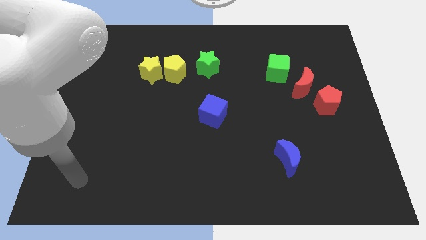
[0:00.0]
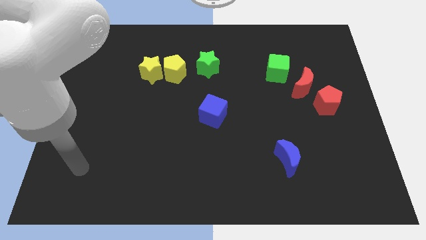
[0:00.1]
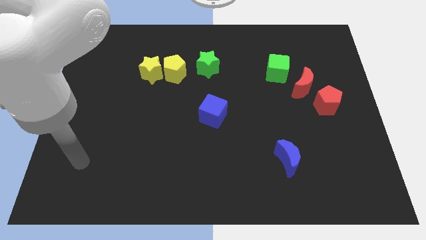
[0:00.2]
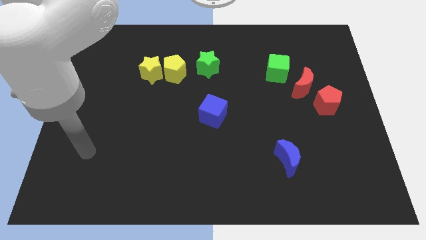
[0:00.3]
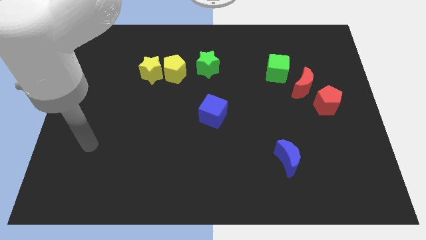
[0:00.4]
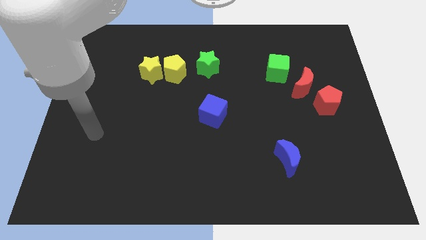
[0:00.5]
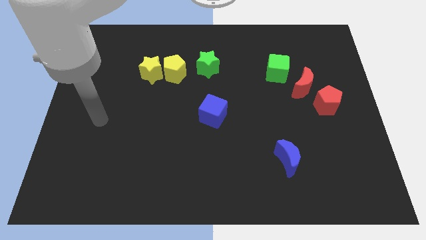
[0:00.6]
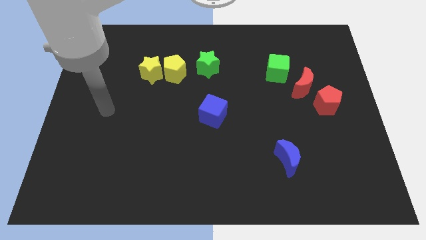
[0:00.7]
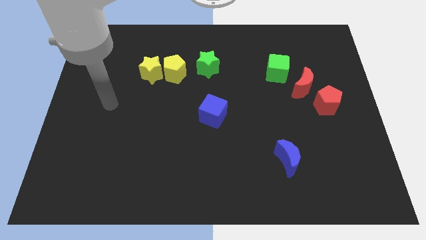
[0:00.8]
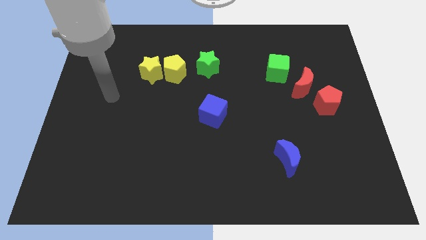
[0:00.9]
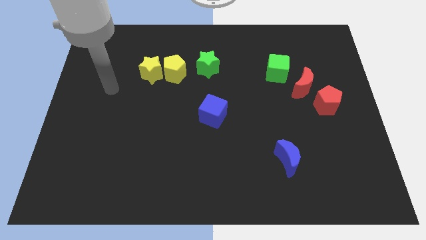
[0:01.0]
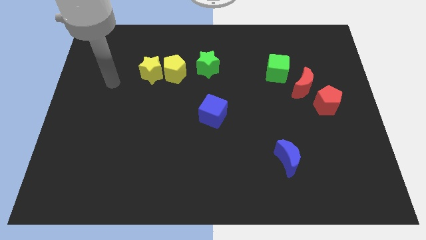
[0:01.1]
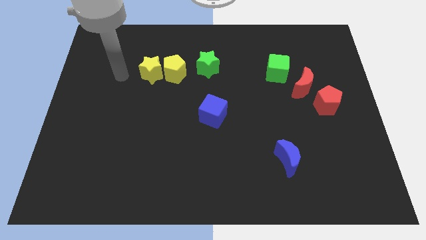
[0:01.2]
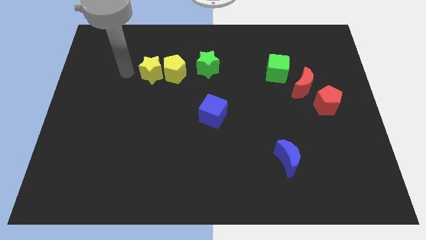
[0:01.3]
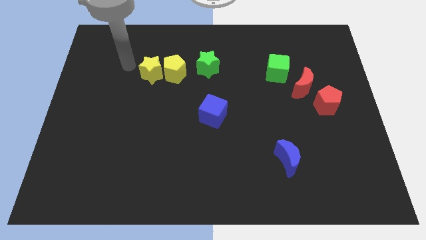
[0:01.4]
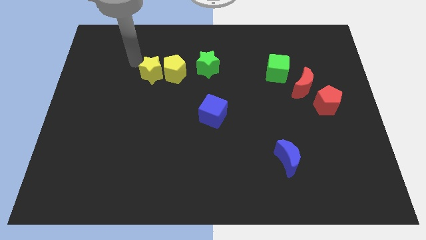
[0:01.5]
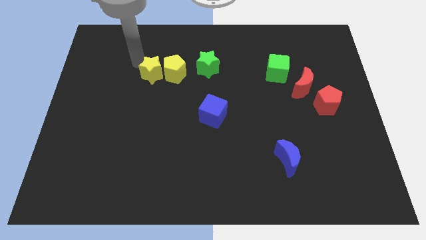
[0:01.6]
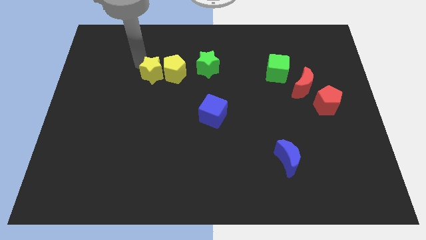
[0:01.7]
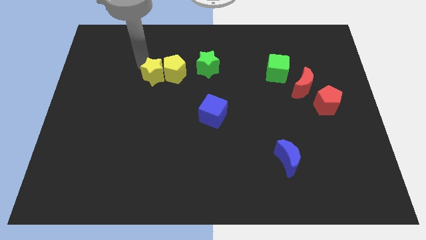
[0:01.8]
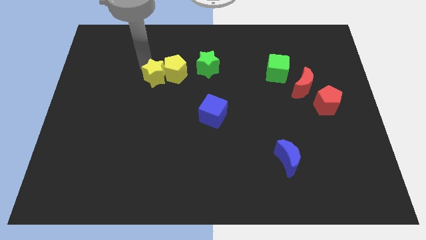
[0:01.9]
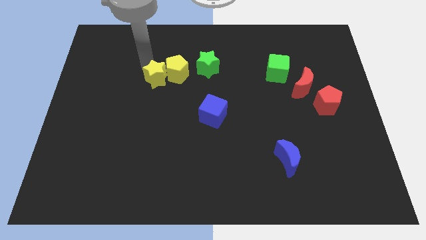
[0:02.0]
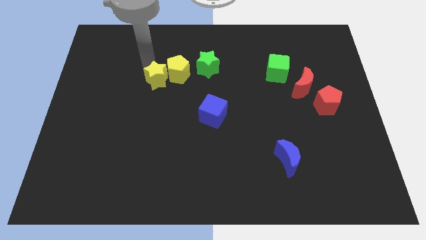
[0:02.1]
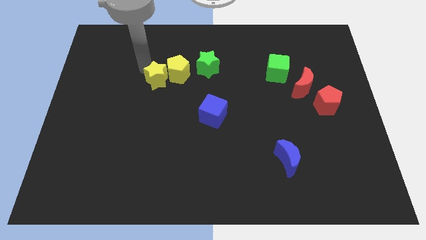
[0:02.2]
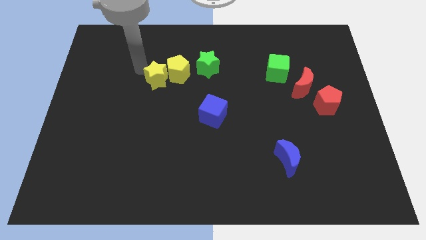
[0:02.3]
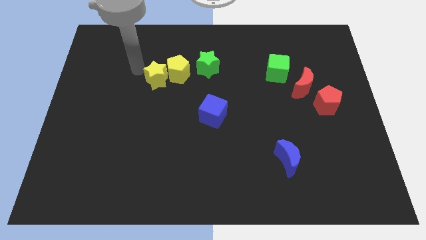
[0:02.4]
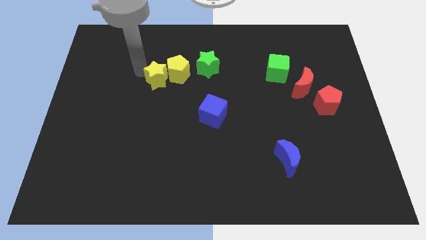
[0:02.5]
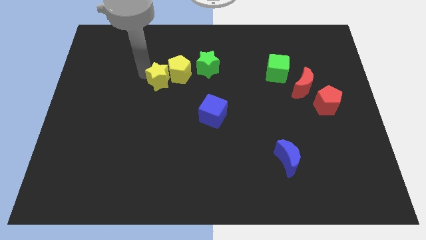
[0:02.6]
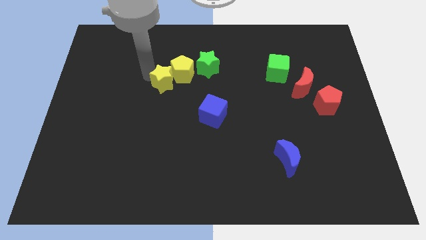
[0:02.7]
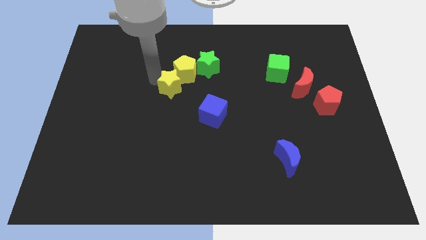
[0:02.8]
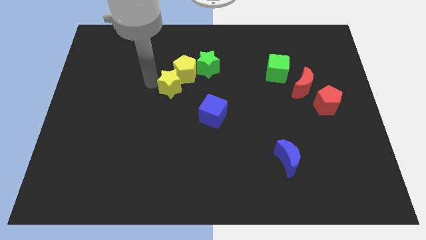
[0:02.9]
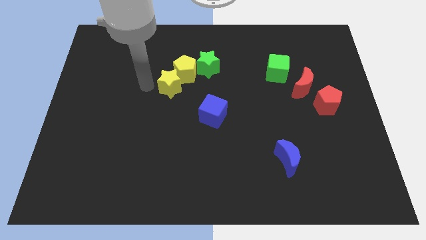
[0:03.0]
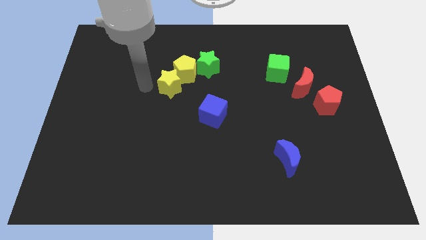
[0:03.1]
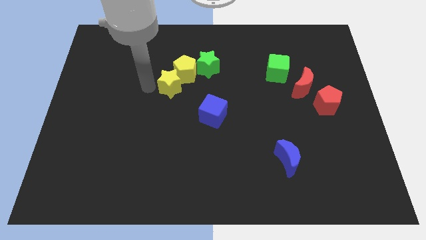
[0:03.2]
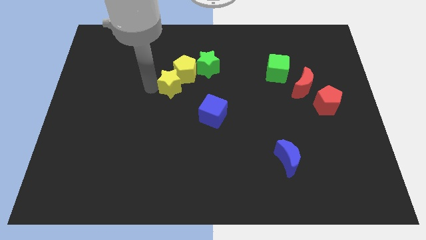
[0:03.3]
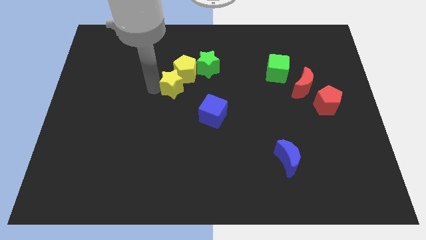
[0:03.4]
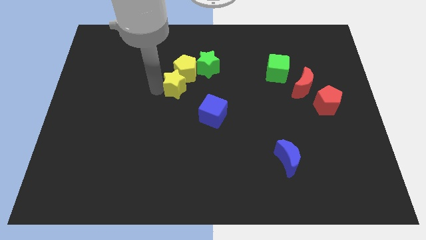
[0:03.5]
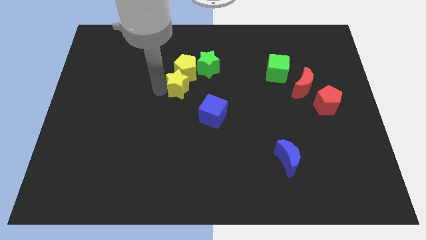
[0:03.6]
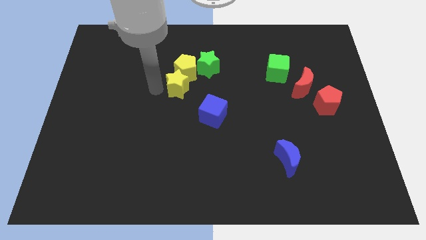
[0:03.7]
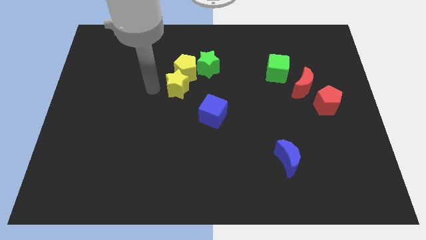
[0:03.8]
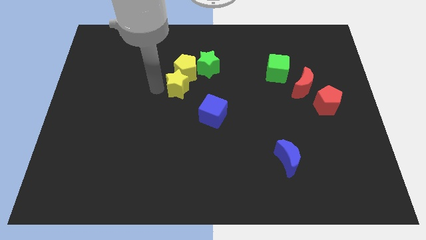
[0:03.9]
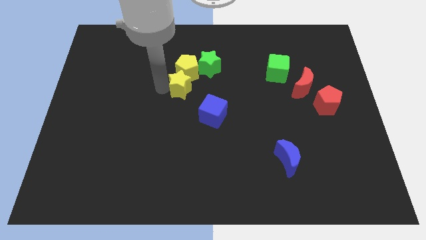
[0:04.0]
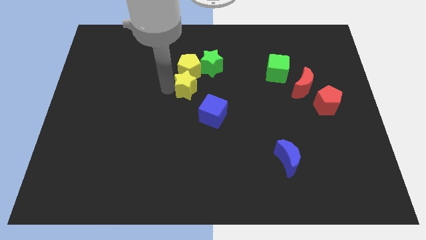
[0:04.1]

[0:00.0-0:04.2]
move the yellow star slightly to the right

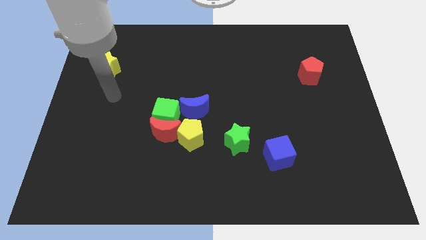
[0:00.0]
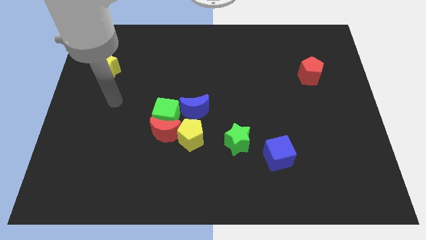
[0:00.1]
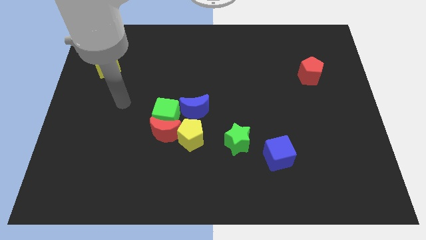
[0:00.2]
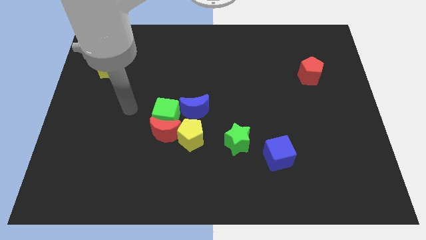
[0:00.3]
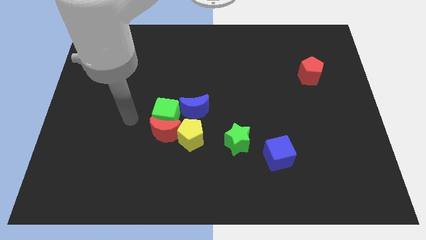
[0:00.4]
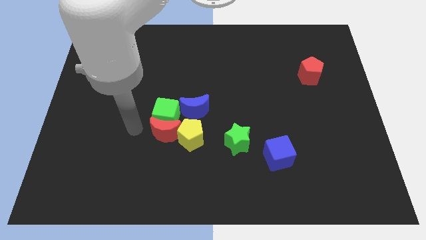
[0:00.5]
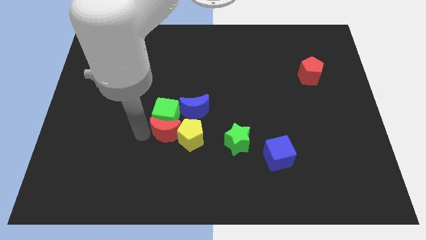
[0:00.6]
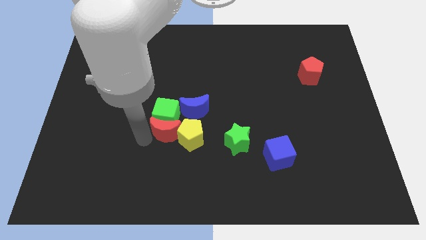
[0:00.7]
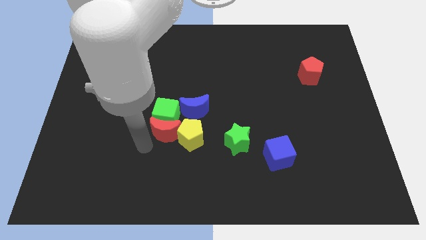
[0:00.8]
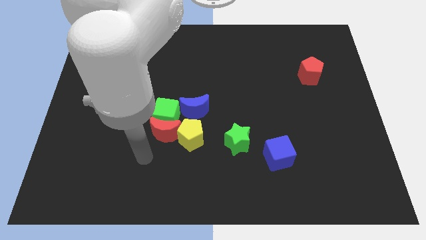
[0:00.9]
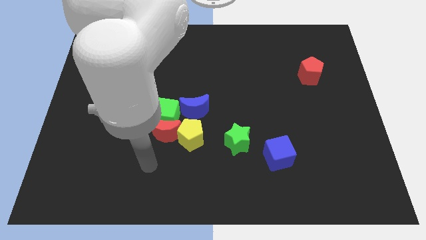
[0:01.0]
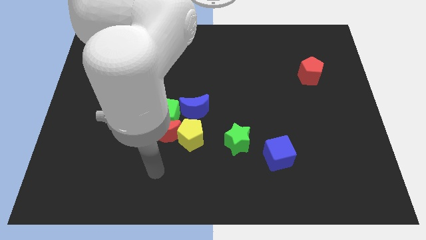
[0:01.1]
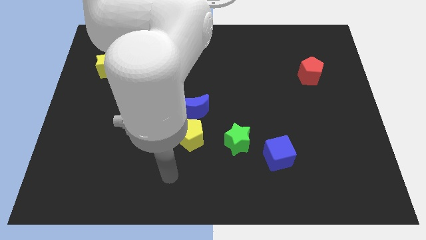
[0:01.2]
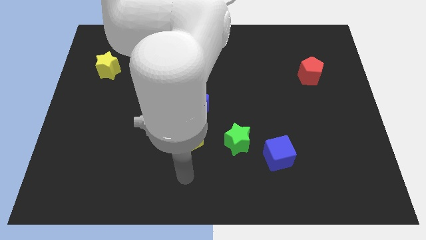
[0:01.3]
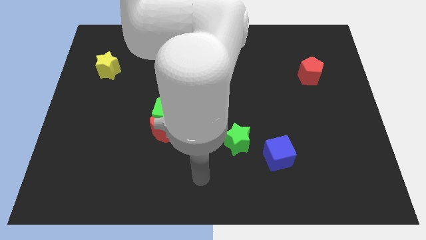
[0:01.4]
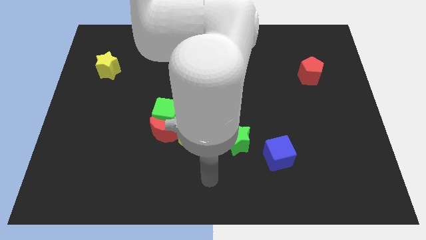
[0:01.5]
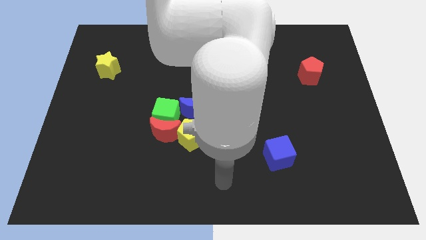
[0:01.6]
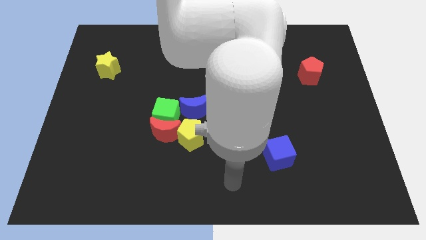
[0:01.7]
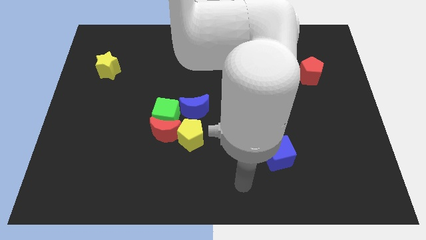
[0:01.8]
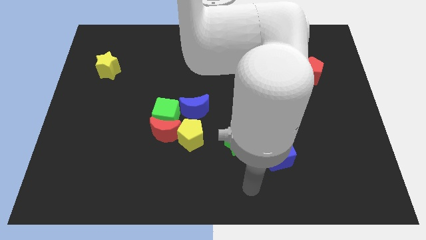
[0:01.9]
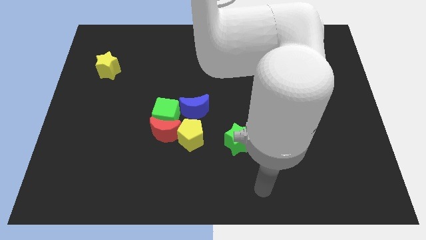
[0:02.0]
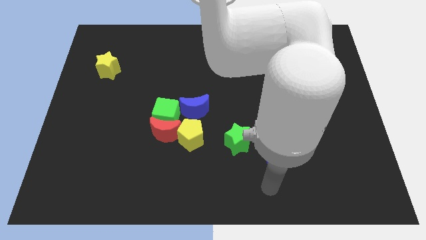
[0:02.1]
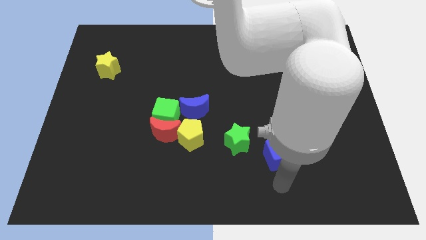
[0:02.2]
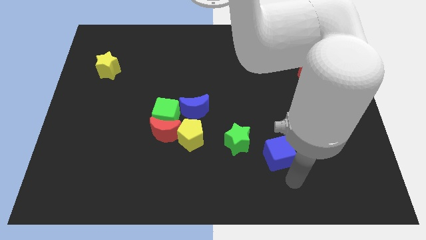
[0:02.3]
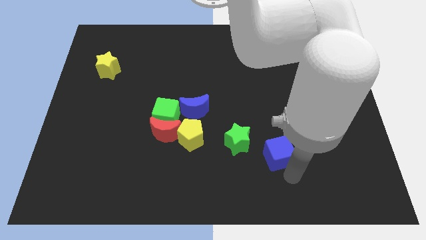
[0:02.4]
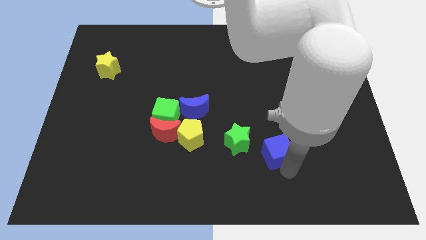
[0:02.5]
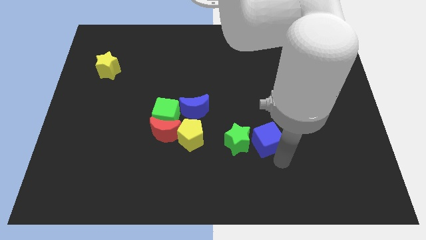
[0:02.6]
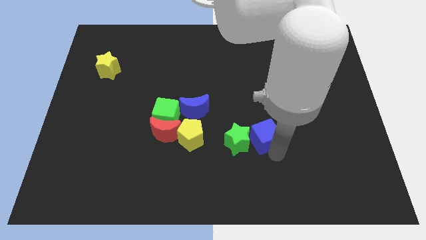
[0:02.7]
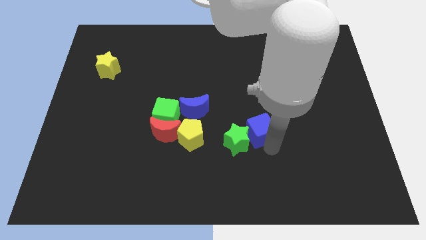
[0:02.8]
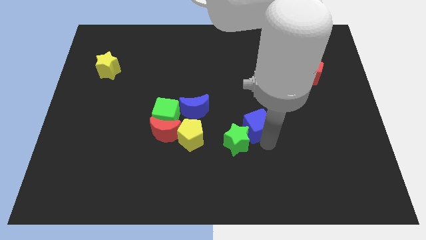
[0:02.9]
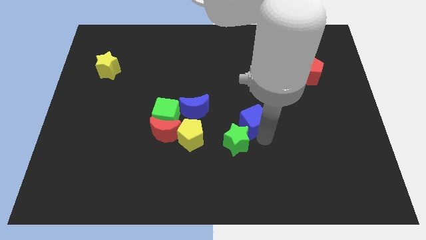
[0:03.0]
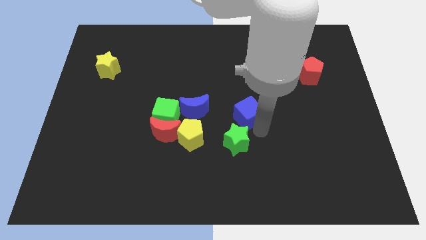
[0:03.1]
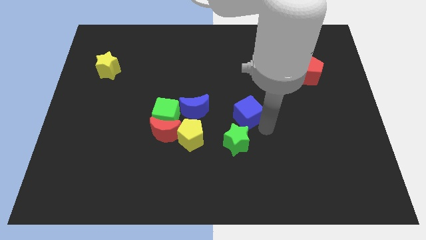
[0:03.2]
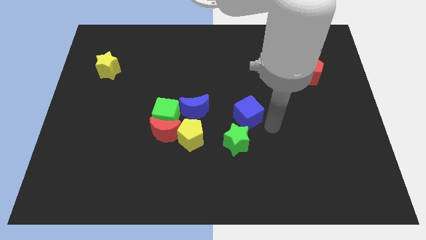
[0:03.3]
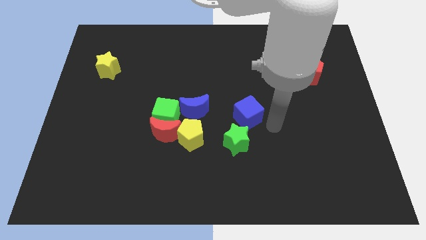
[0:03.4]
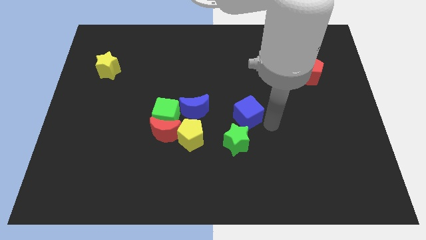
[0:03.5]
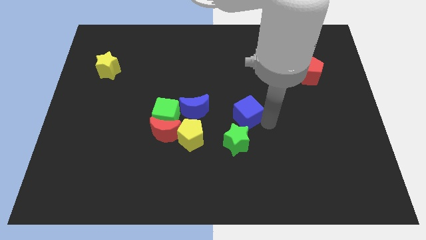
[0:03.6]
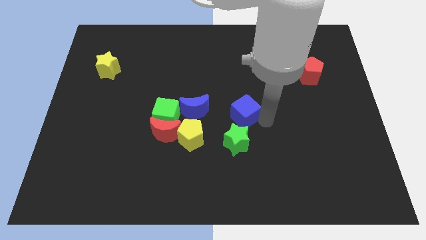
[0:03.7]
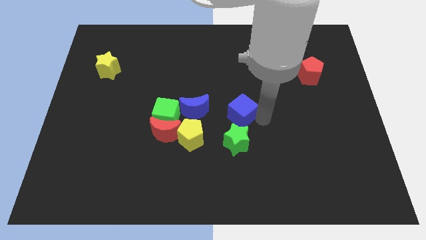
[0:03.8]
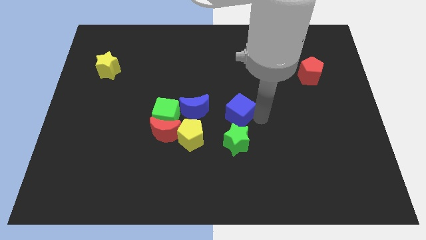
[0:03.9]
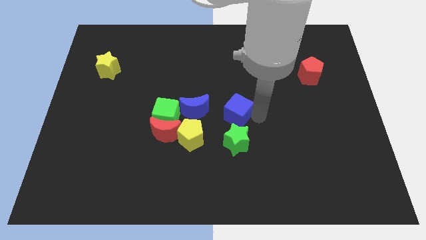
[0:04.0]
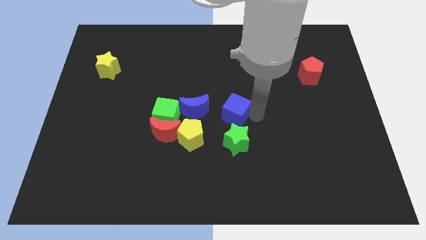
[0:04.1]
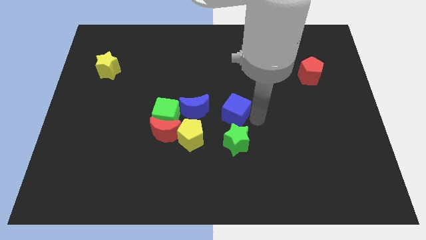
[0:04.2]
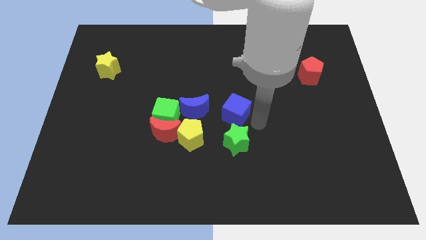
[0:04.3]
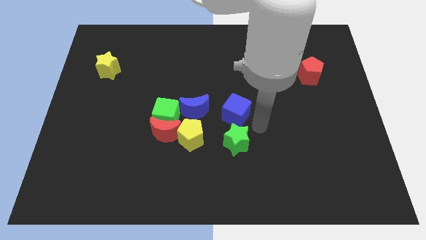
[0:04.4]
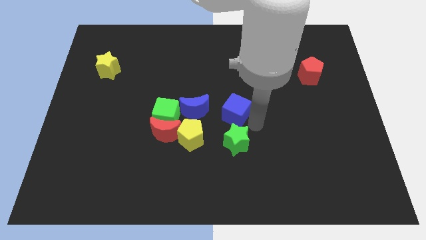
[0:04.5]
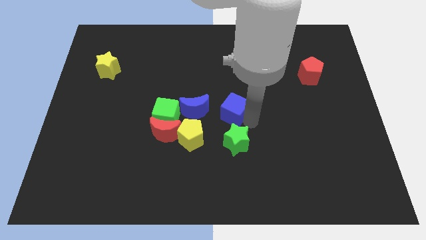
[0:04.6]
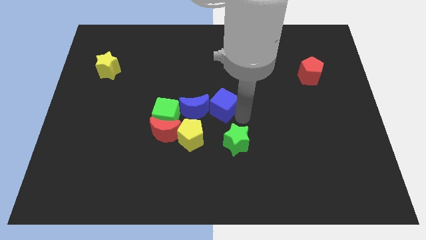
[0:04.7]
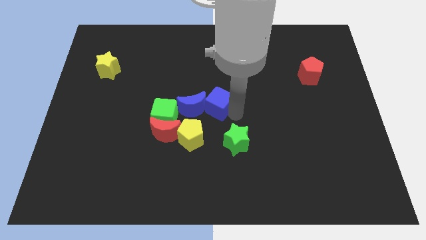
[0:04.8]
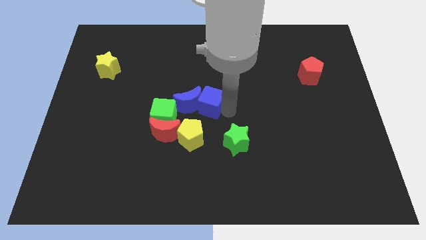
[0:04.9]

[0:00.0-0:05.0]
move the blue cube upwards and then to the left
